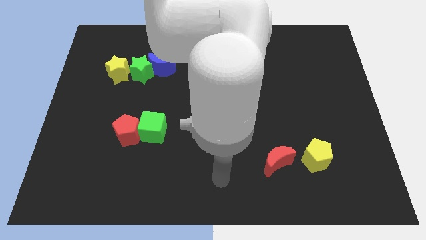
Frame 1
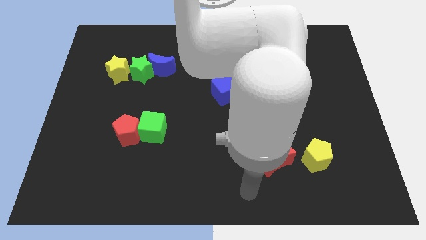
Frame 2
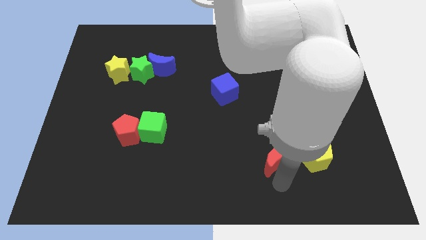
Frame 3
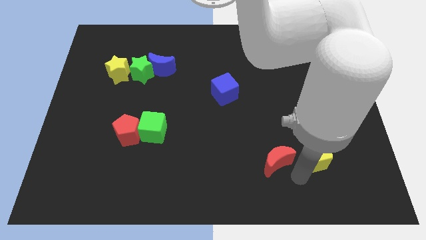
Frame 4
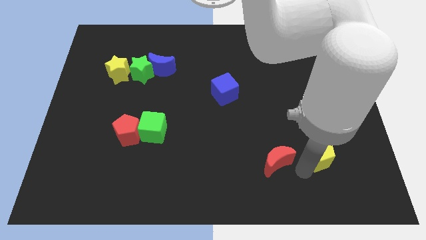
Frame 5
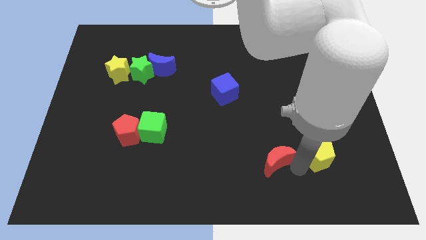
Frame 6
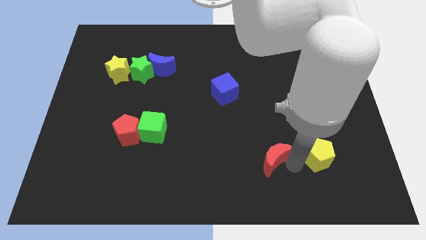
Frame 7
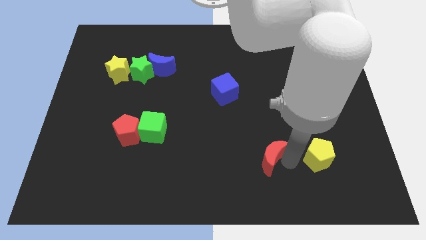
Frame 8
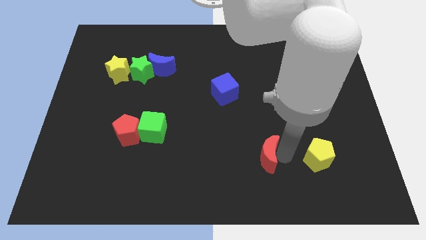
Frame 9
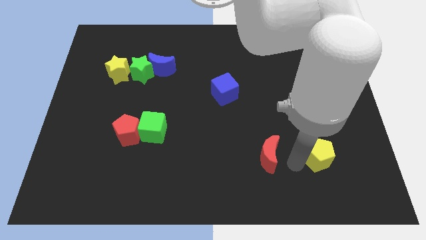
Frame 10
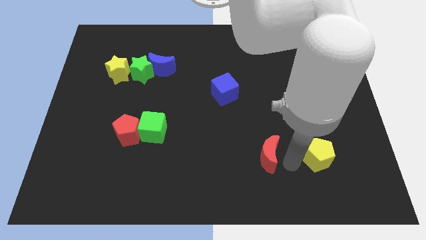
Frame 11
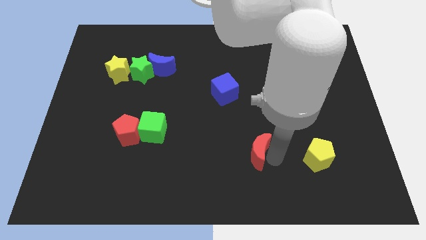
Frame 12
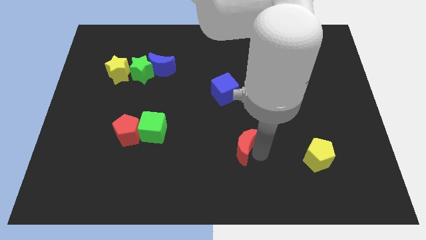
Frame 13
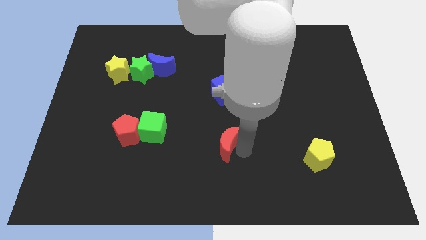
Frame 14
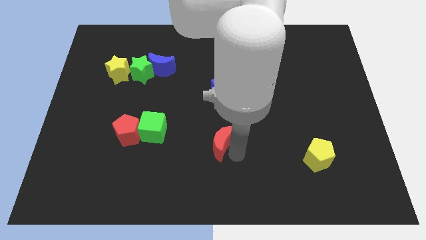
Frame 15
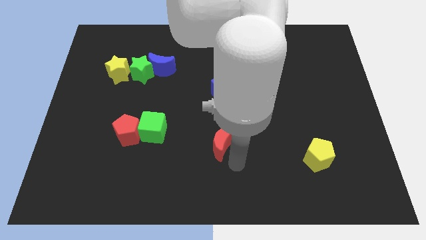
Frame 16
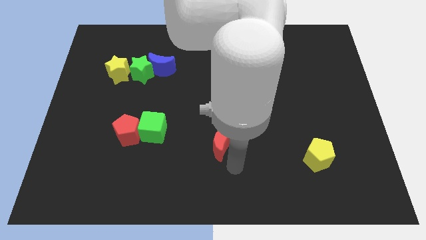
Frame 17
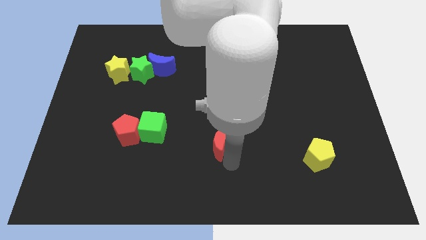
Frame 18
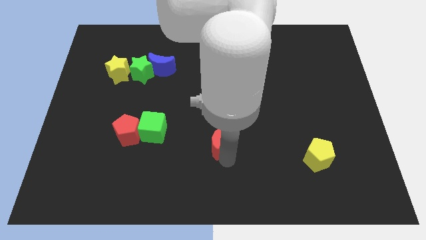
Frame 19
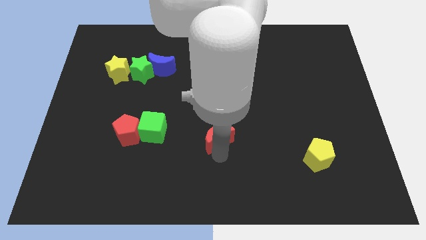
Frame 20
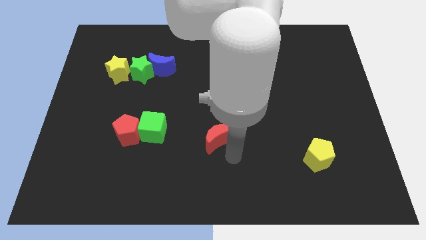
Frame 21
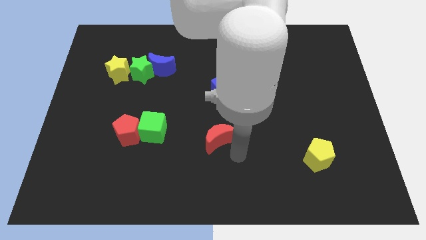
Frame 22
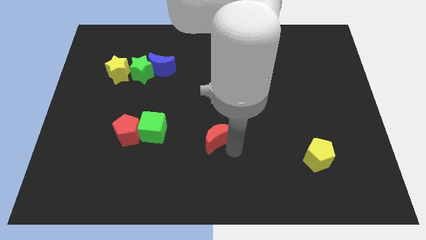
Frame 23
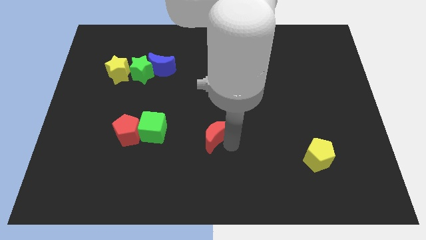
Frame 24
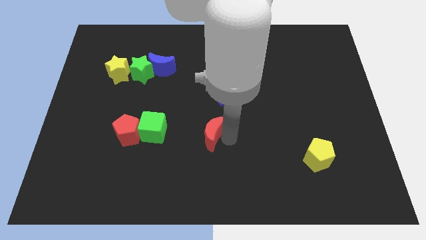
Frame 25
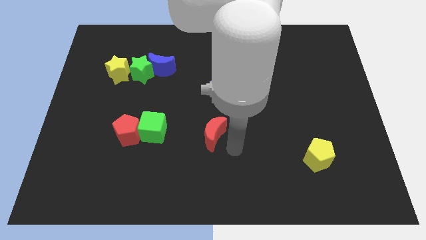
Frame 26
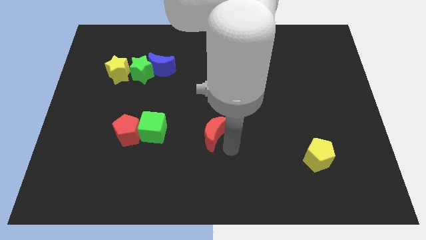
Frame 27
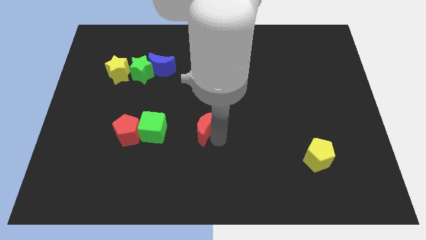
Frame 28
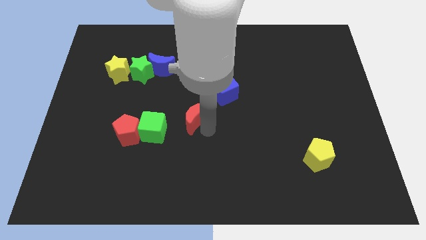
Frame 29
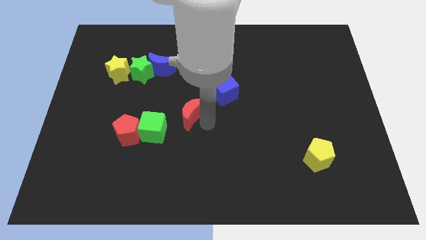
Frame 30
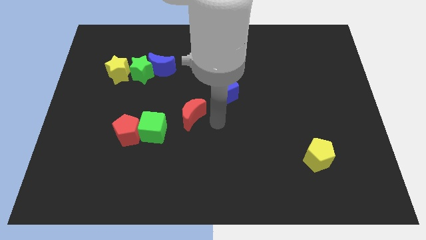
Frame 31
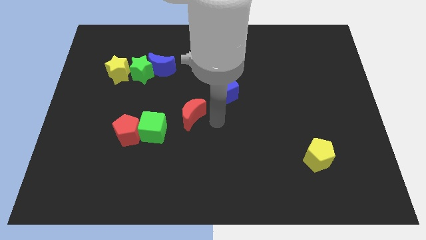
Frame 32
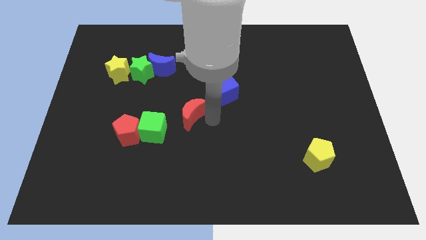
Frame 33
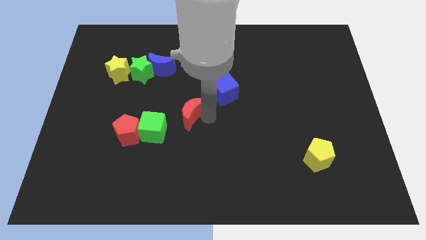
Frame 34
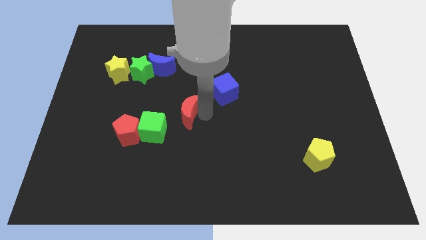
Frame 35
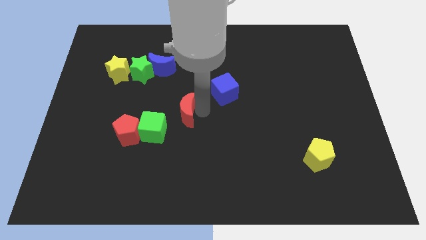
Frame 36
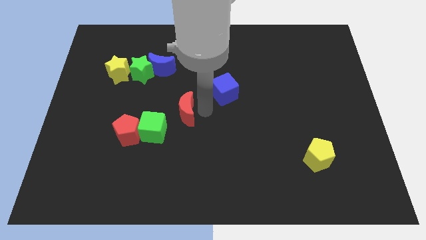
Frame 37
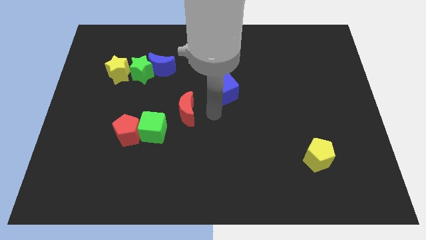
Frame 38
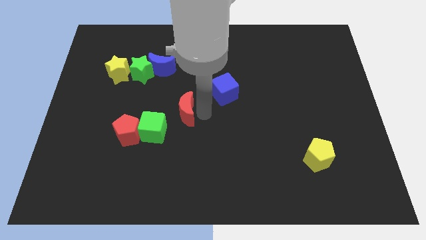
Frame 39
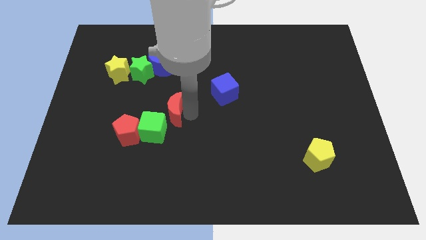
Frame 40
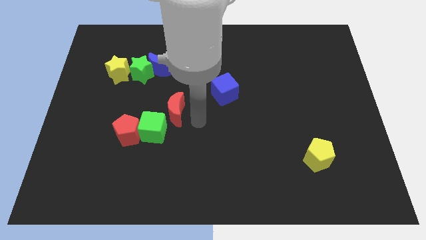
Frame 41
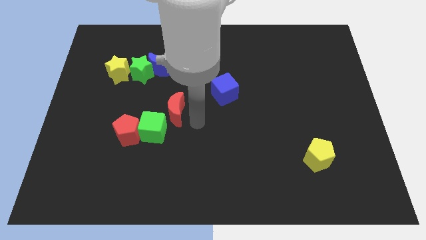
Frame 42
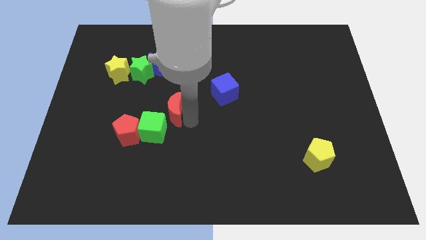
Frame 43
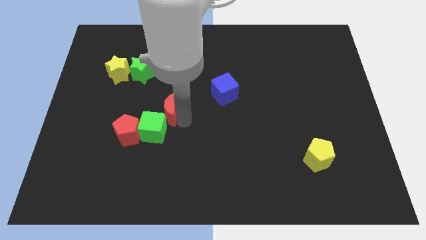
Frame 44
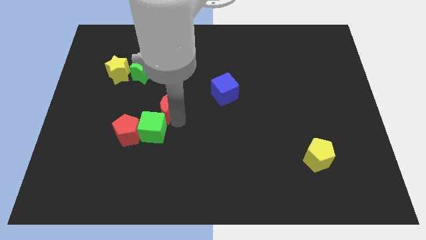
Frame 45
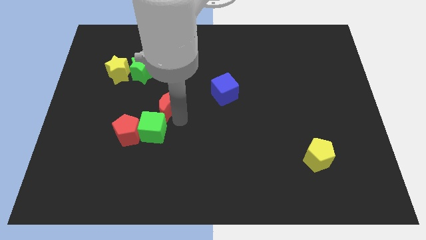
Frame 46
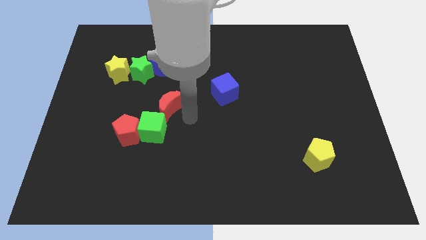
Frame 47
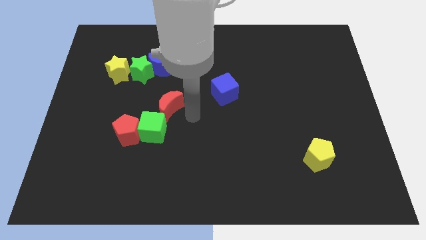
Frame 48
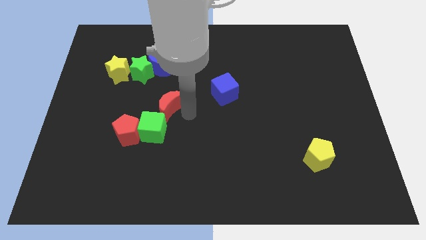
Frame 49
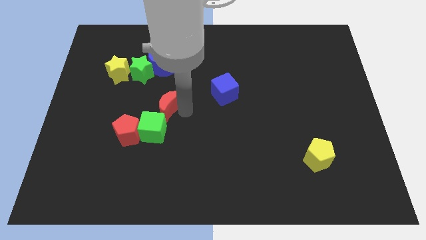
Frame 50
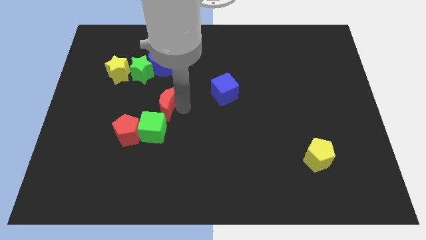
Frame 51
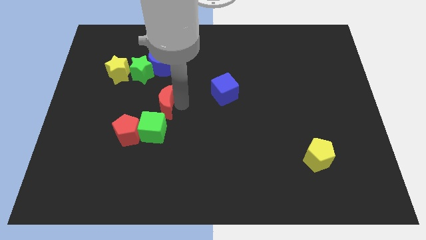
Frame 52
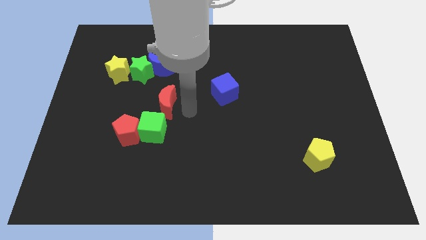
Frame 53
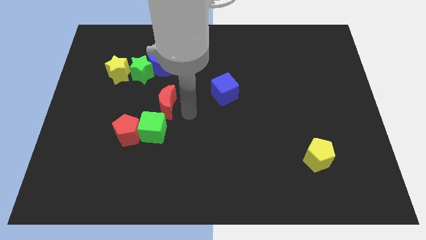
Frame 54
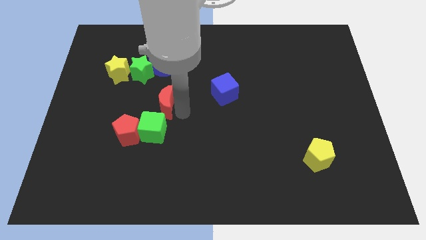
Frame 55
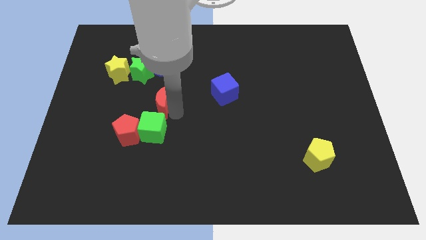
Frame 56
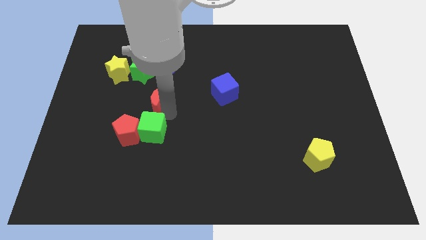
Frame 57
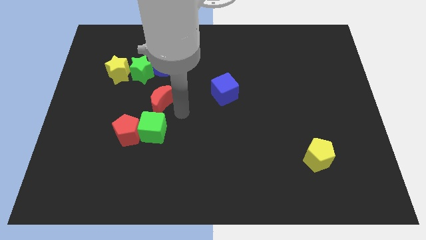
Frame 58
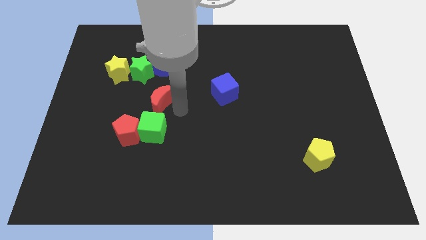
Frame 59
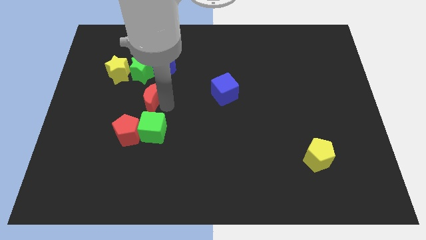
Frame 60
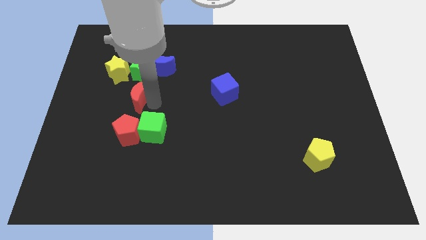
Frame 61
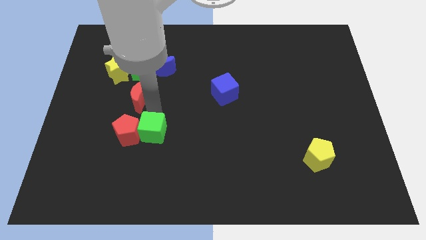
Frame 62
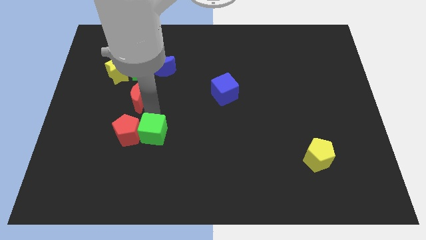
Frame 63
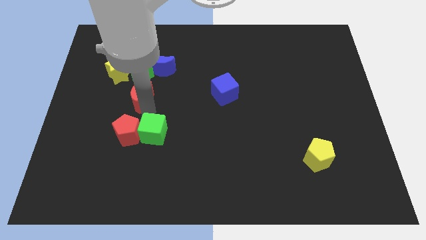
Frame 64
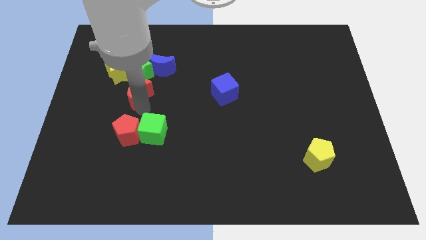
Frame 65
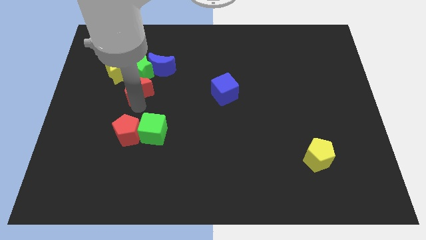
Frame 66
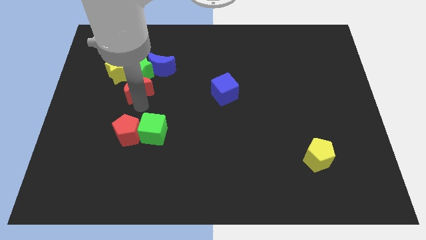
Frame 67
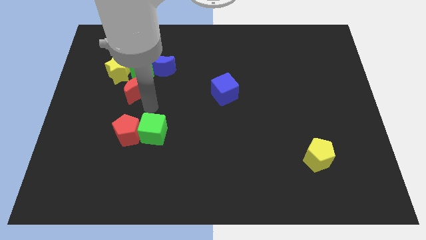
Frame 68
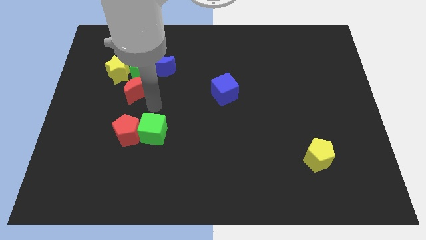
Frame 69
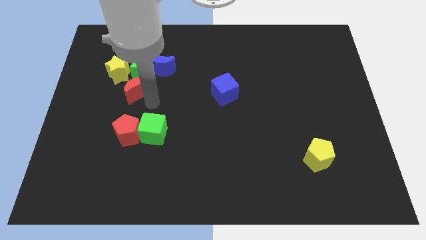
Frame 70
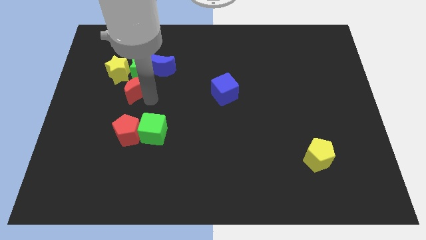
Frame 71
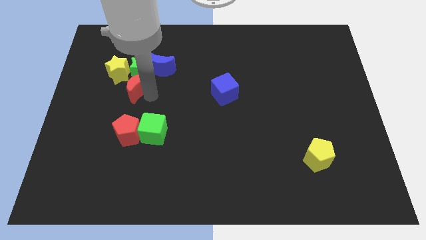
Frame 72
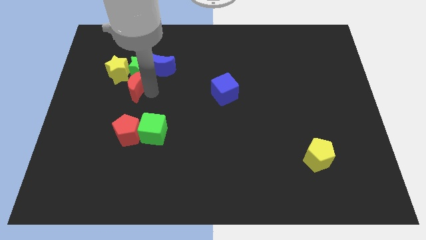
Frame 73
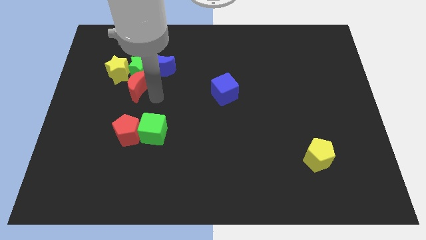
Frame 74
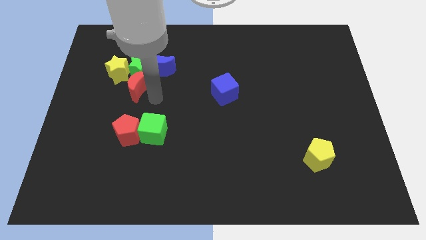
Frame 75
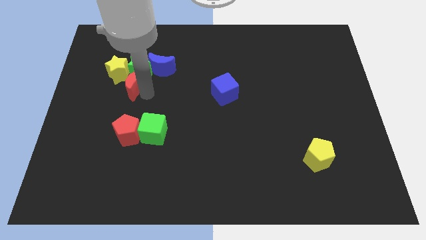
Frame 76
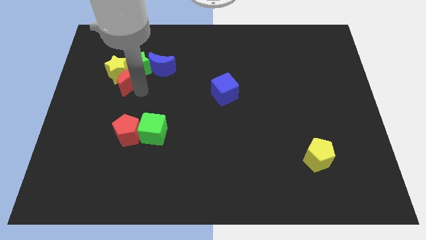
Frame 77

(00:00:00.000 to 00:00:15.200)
slide the red moon close to the yellow star
